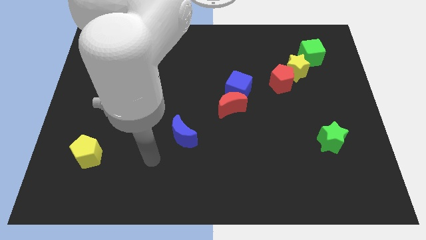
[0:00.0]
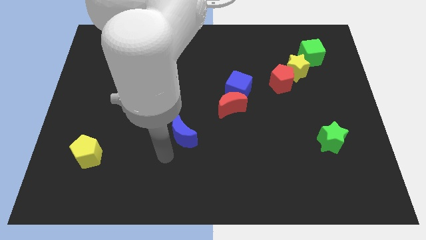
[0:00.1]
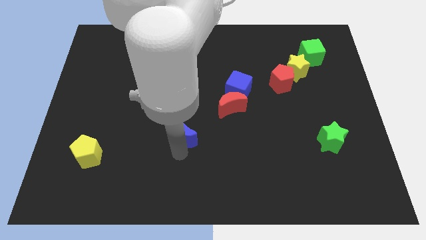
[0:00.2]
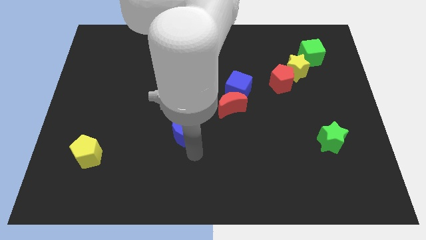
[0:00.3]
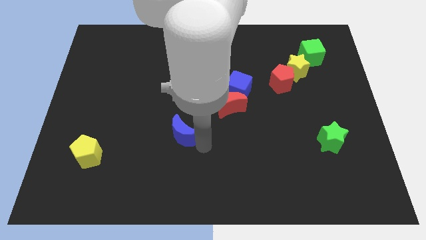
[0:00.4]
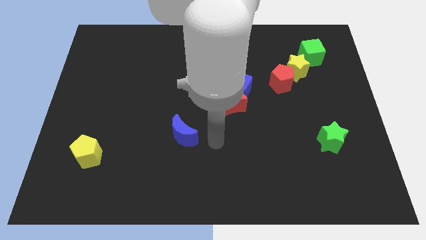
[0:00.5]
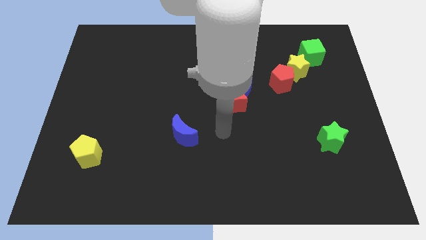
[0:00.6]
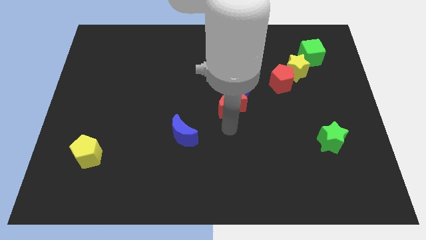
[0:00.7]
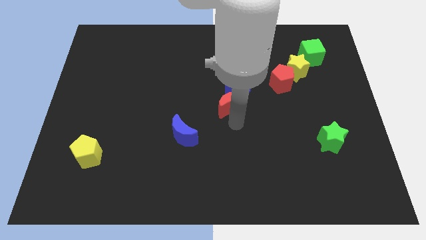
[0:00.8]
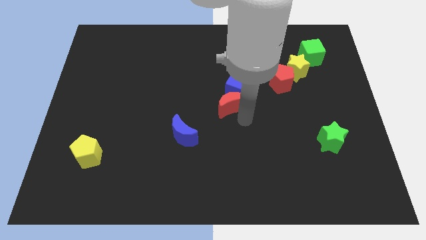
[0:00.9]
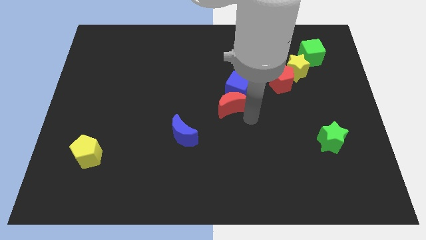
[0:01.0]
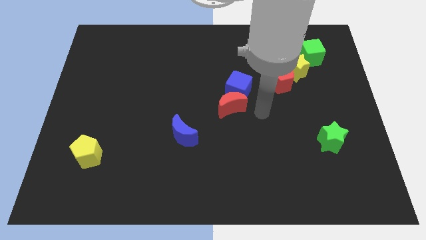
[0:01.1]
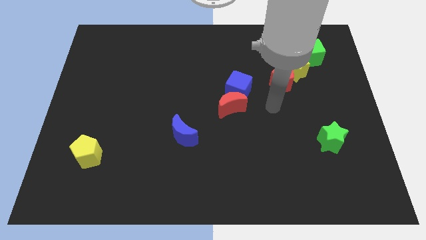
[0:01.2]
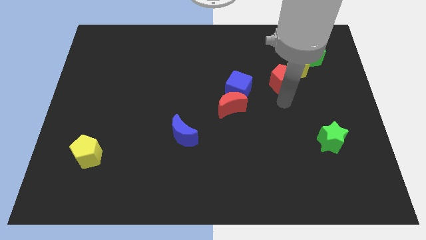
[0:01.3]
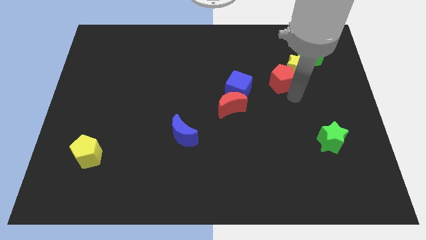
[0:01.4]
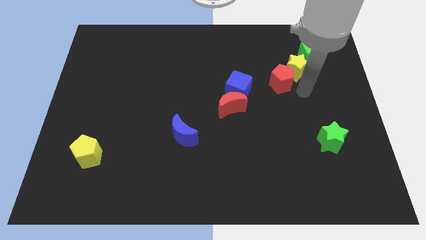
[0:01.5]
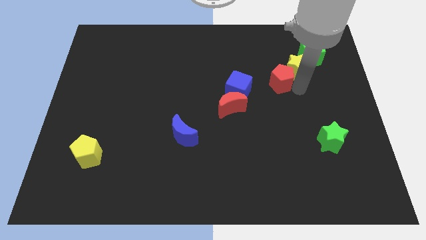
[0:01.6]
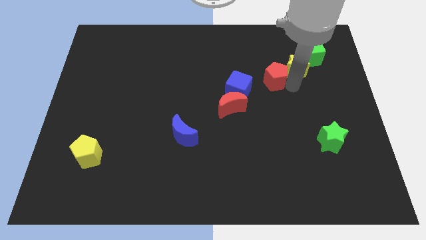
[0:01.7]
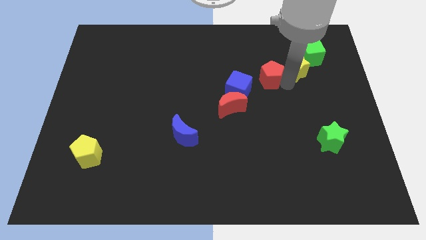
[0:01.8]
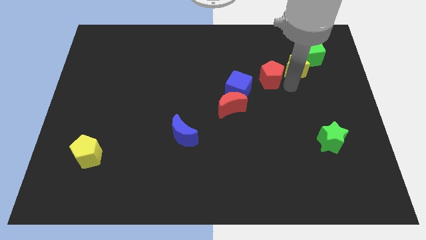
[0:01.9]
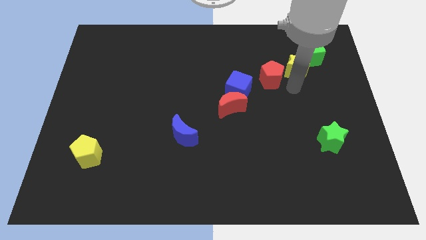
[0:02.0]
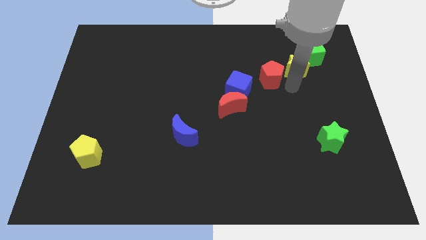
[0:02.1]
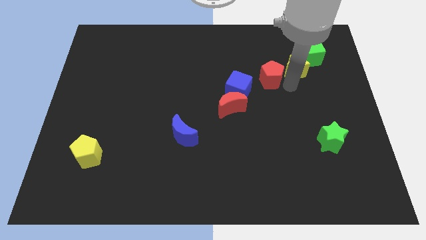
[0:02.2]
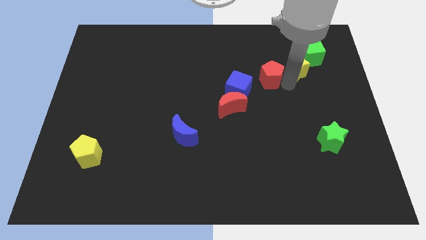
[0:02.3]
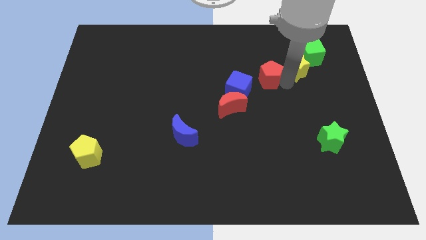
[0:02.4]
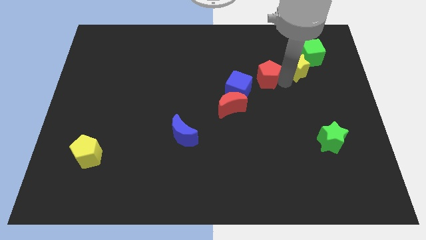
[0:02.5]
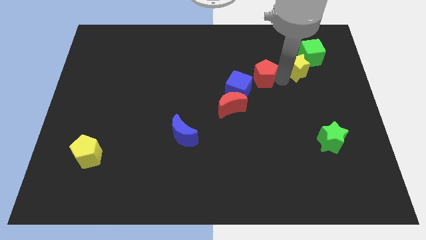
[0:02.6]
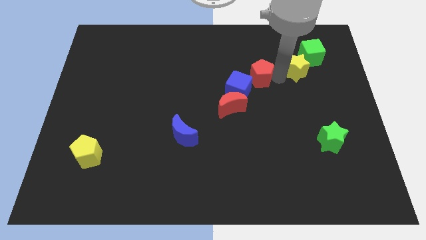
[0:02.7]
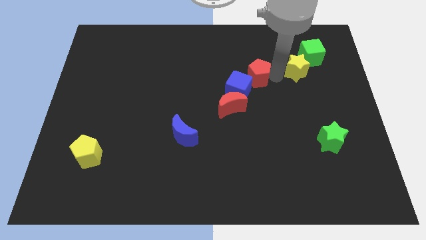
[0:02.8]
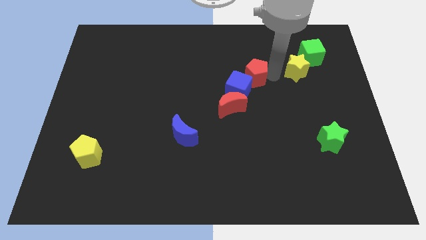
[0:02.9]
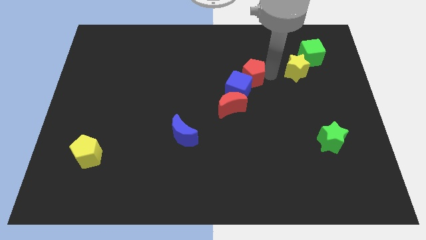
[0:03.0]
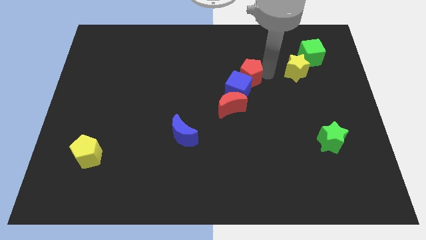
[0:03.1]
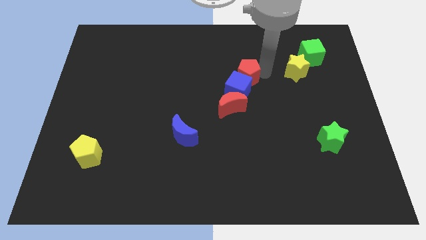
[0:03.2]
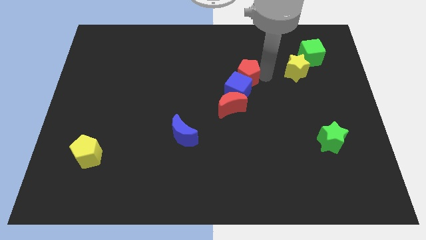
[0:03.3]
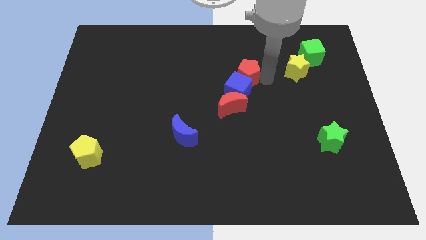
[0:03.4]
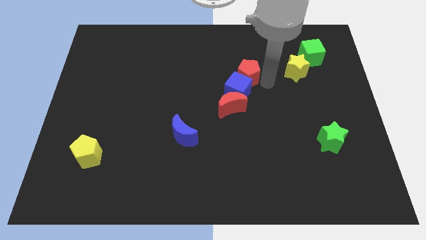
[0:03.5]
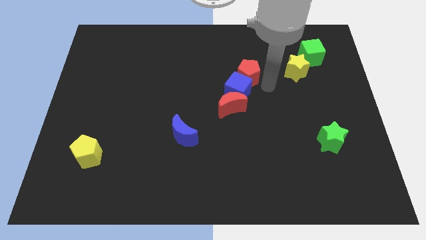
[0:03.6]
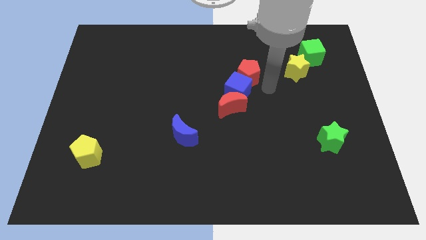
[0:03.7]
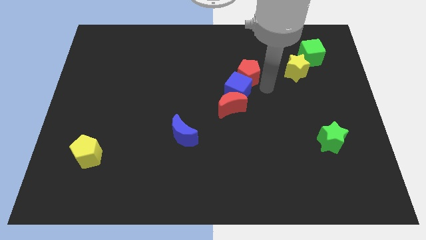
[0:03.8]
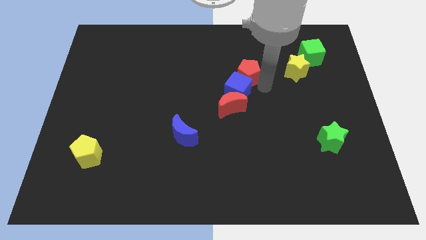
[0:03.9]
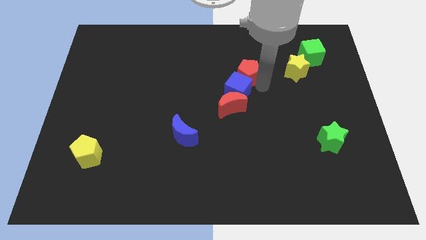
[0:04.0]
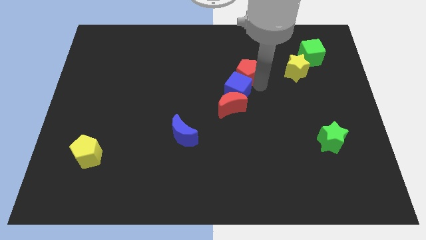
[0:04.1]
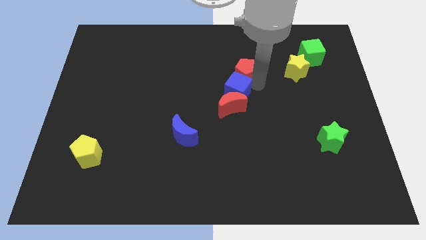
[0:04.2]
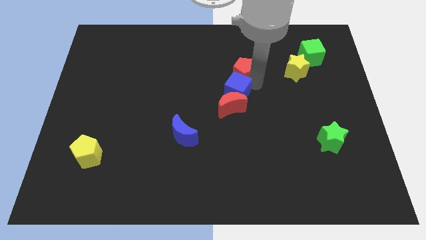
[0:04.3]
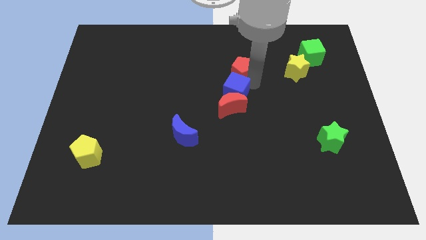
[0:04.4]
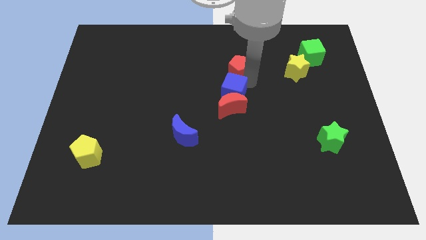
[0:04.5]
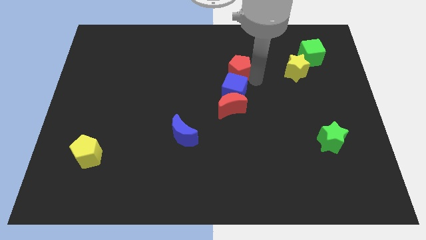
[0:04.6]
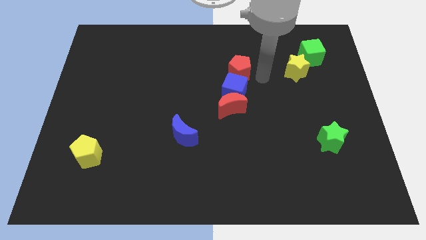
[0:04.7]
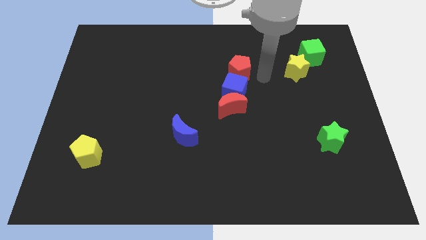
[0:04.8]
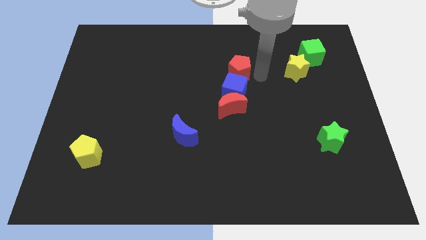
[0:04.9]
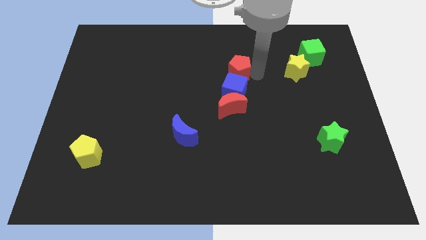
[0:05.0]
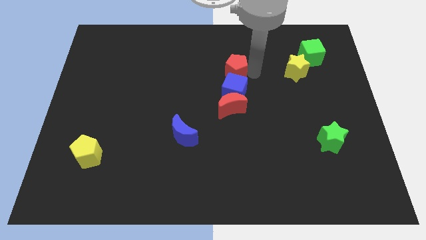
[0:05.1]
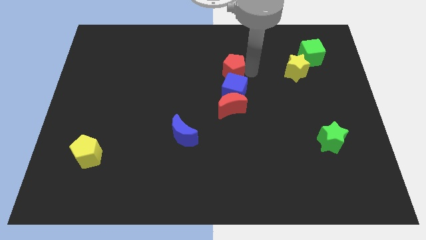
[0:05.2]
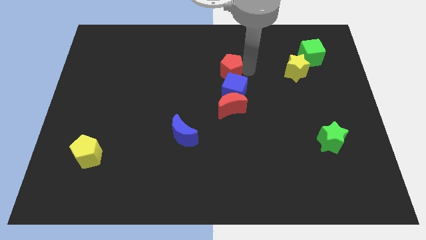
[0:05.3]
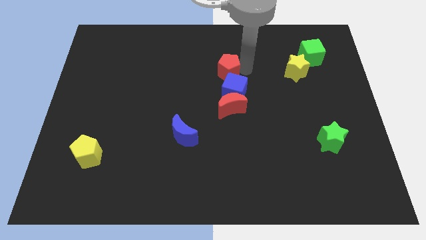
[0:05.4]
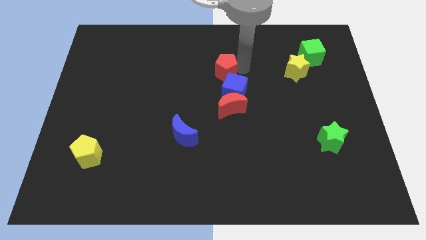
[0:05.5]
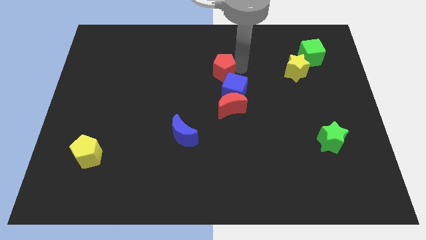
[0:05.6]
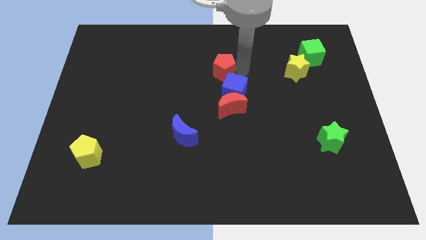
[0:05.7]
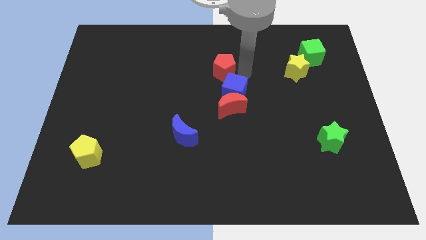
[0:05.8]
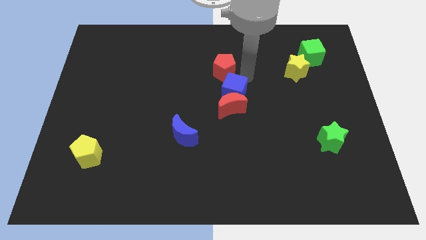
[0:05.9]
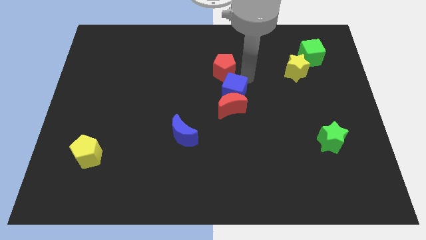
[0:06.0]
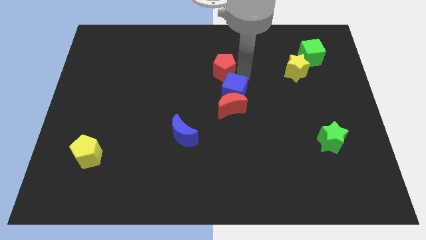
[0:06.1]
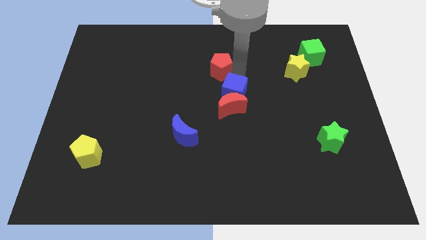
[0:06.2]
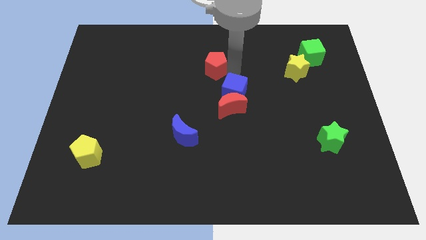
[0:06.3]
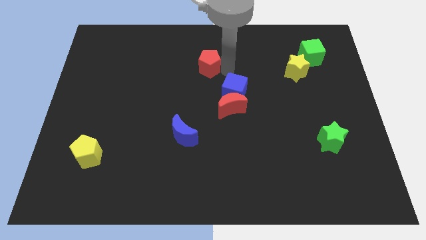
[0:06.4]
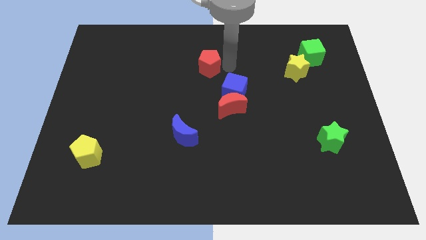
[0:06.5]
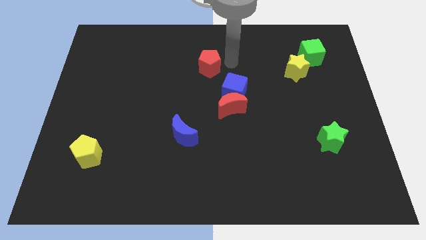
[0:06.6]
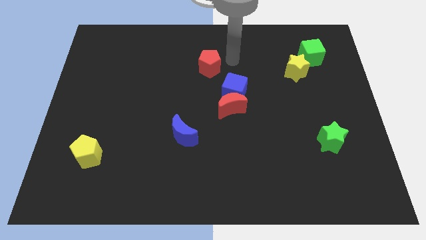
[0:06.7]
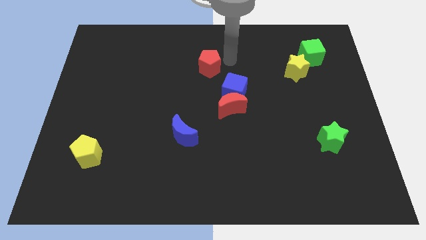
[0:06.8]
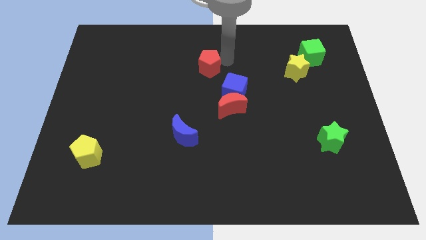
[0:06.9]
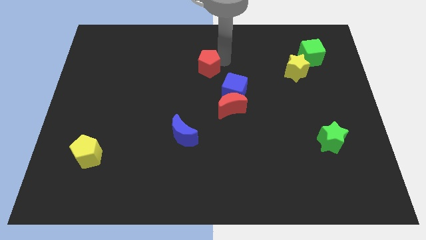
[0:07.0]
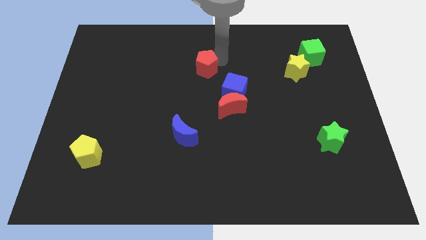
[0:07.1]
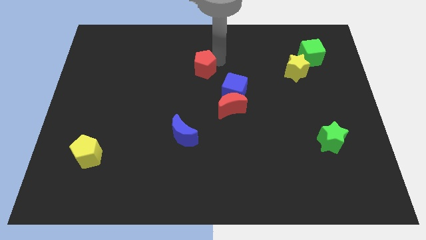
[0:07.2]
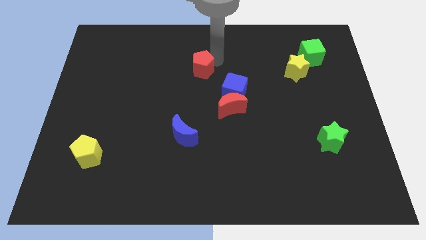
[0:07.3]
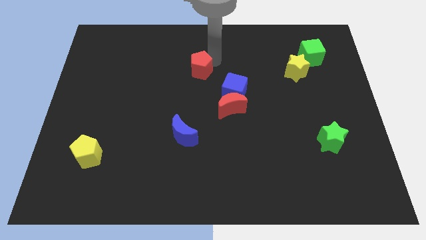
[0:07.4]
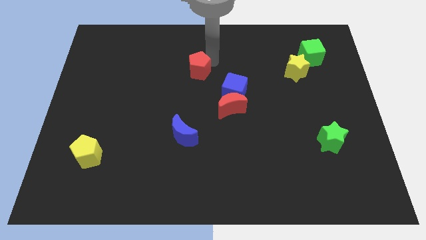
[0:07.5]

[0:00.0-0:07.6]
move the red pentagon to the left

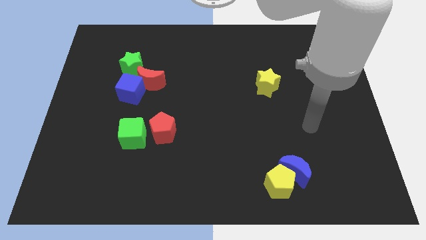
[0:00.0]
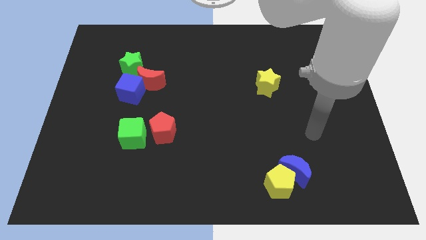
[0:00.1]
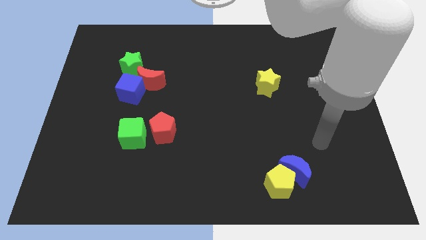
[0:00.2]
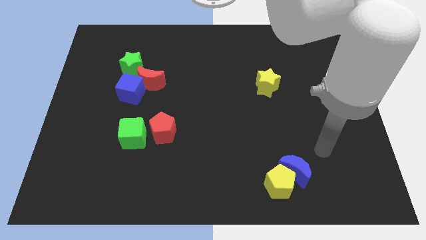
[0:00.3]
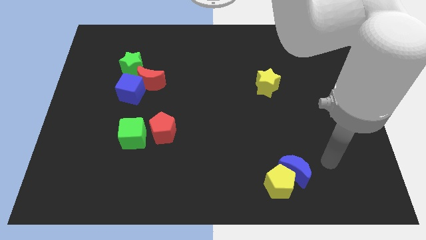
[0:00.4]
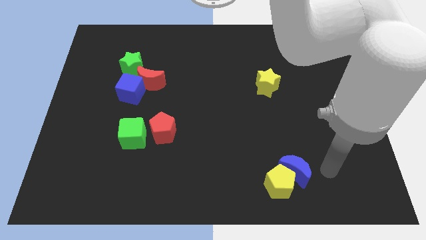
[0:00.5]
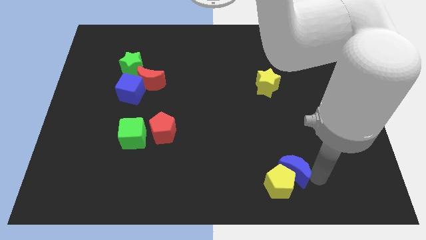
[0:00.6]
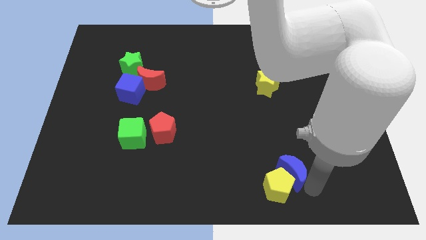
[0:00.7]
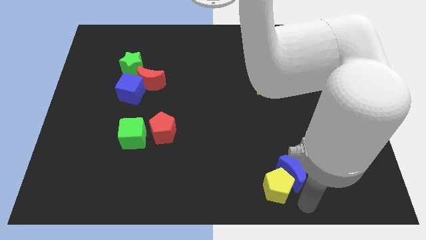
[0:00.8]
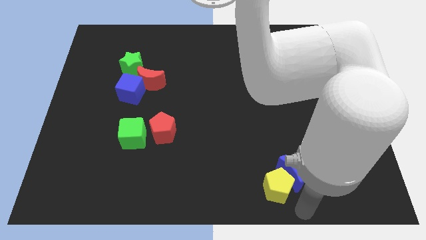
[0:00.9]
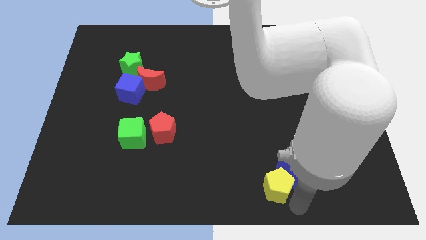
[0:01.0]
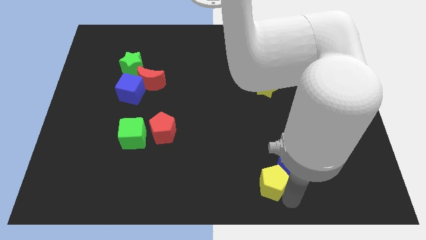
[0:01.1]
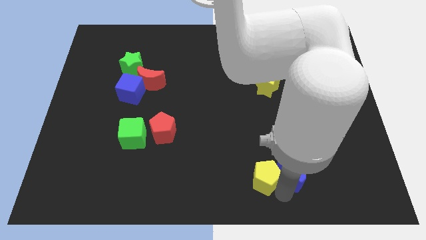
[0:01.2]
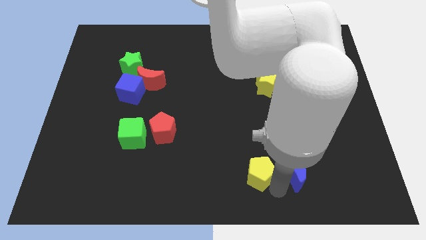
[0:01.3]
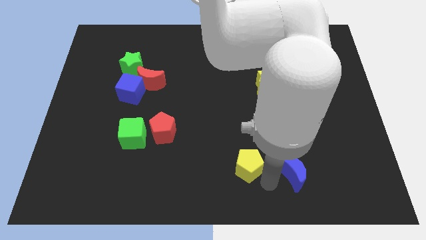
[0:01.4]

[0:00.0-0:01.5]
move the yellow pentagon slightly up and then to the left
